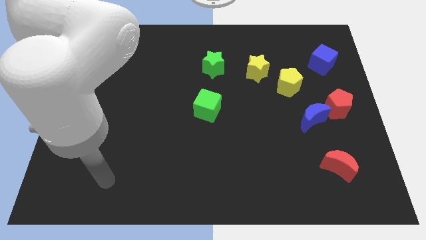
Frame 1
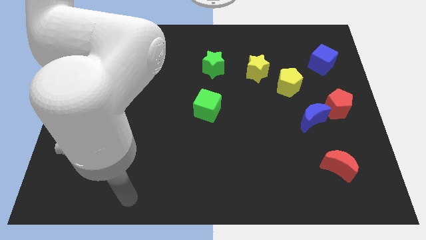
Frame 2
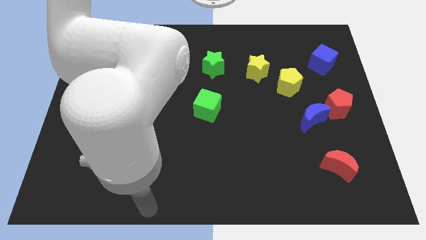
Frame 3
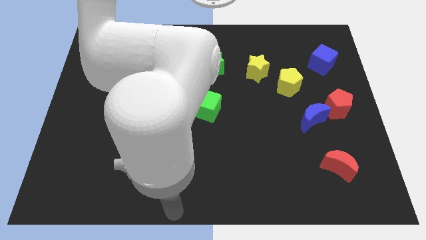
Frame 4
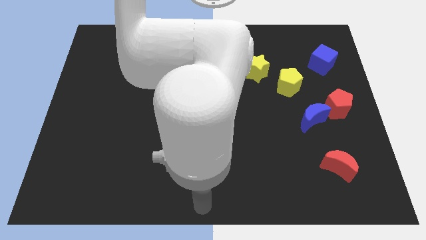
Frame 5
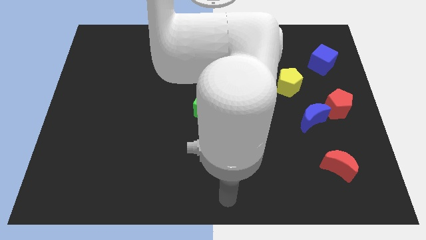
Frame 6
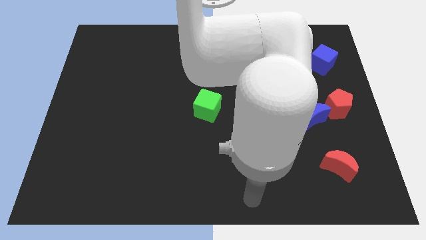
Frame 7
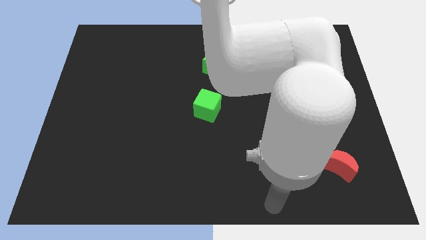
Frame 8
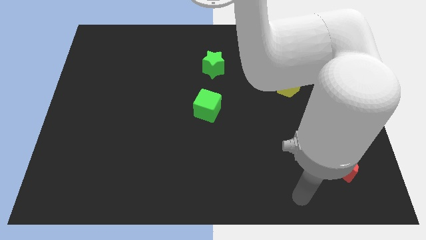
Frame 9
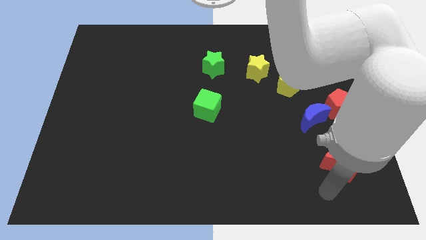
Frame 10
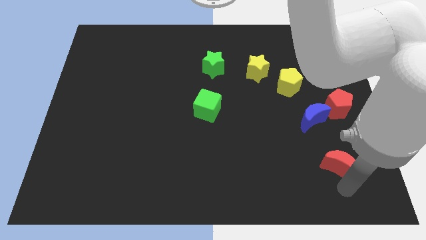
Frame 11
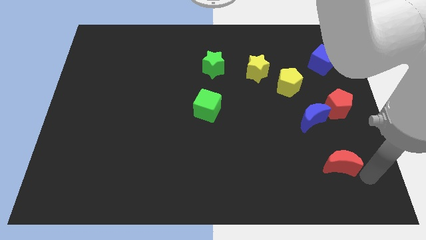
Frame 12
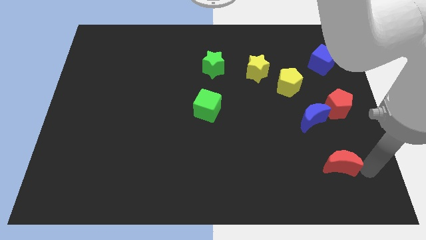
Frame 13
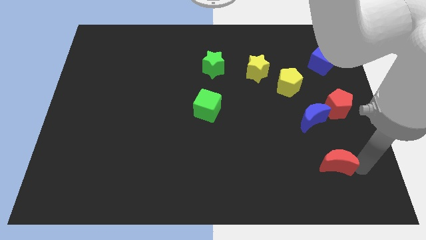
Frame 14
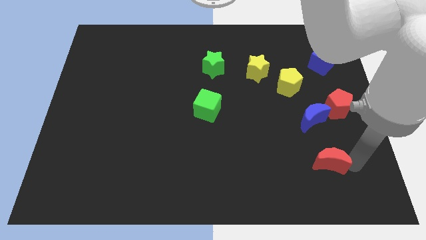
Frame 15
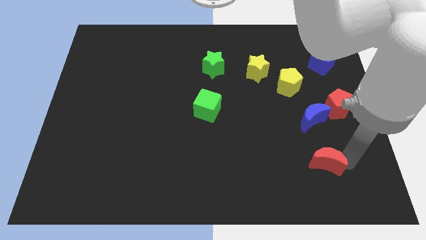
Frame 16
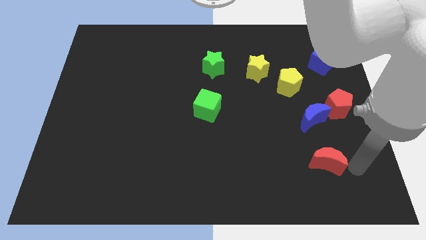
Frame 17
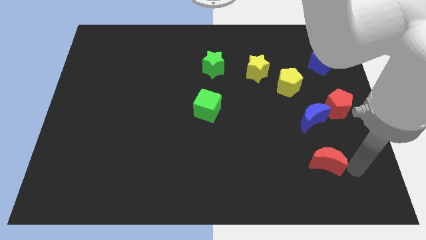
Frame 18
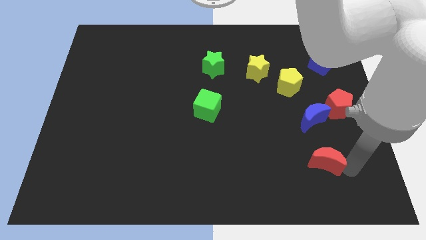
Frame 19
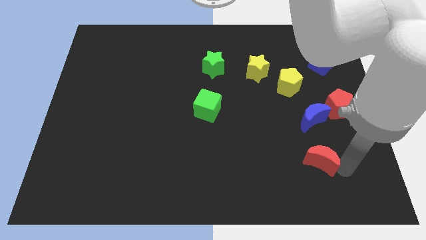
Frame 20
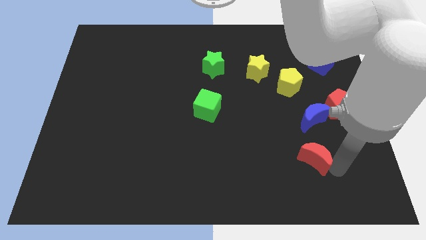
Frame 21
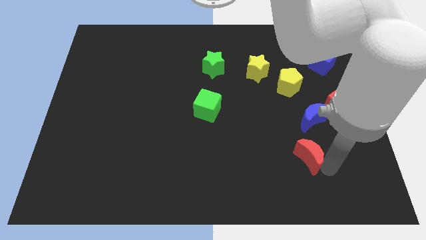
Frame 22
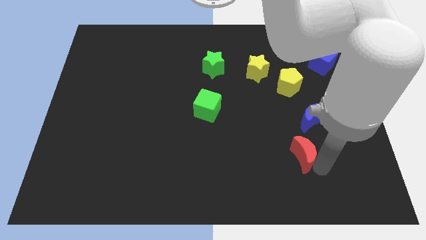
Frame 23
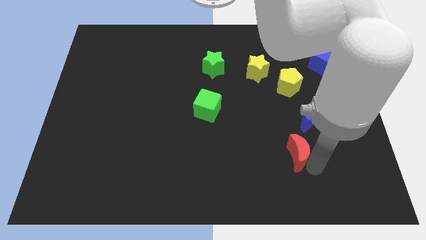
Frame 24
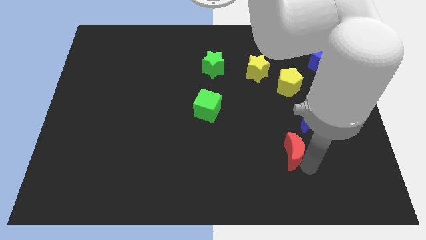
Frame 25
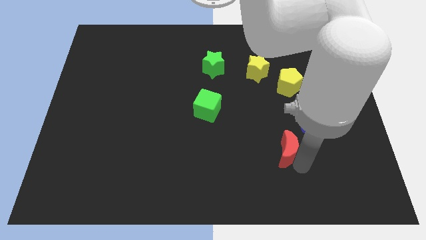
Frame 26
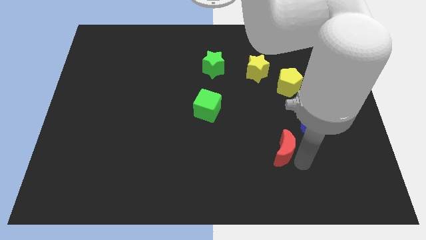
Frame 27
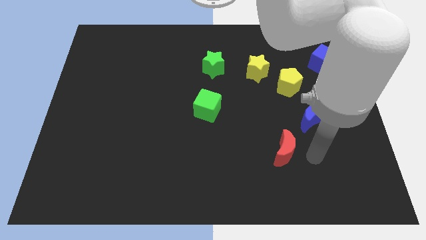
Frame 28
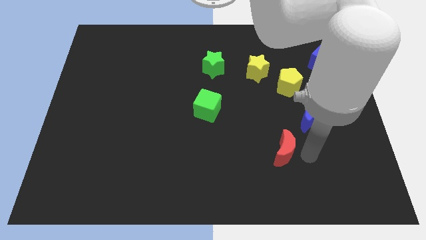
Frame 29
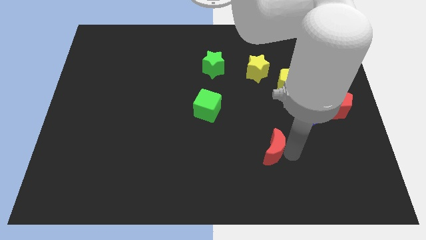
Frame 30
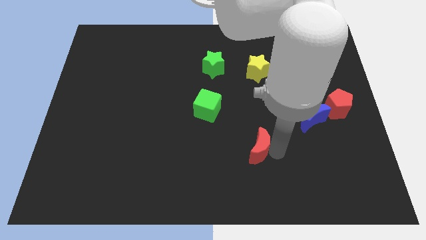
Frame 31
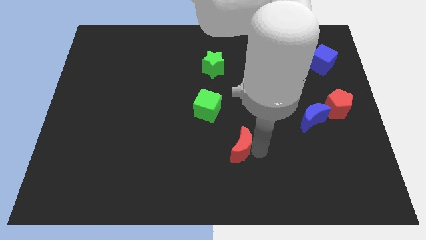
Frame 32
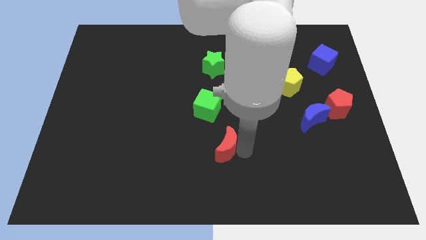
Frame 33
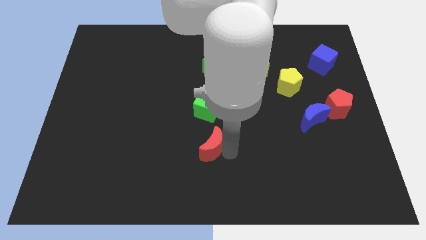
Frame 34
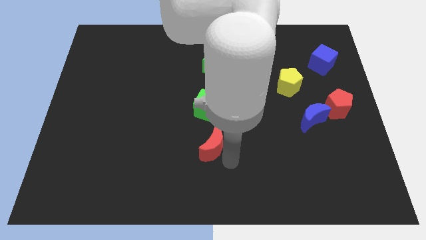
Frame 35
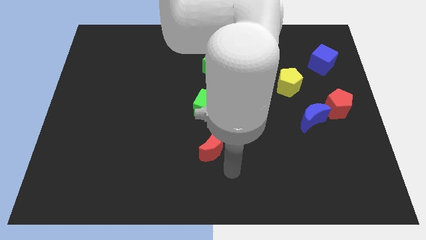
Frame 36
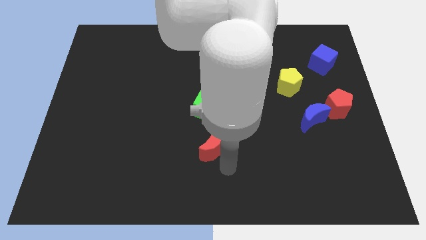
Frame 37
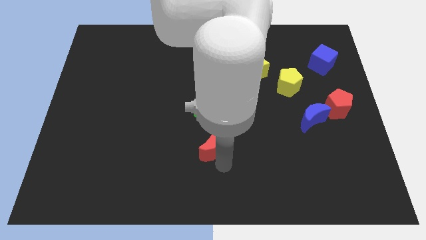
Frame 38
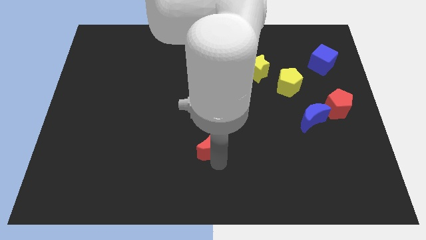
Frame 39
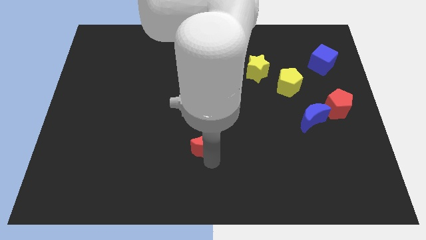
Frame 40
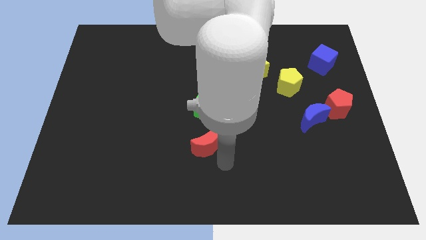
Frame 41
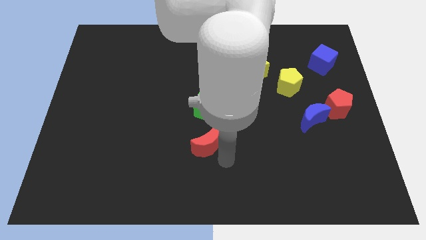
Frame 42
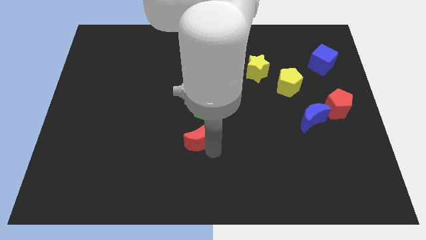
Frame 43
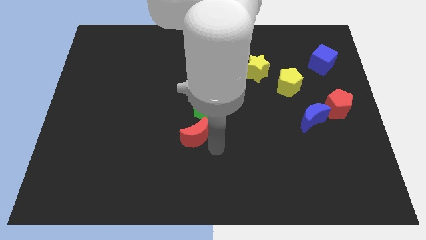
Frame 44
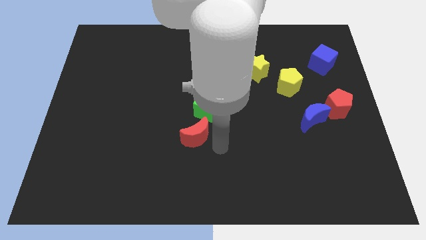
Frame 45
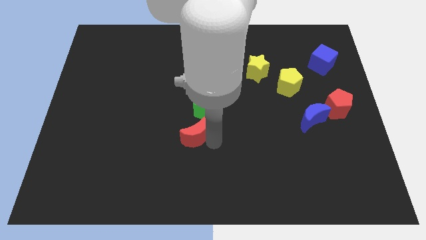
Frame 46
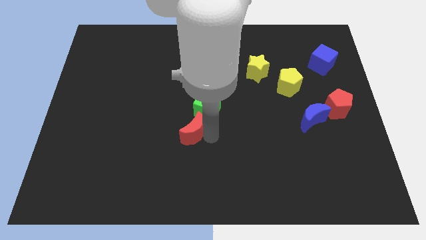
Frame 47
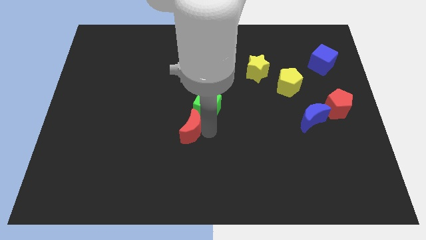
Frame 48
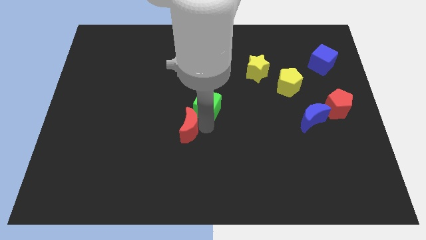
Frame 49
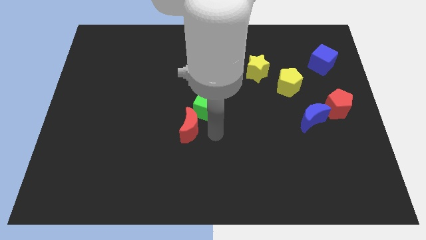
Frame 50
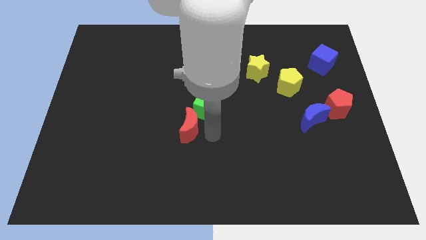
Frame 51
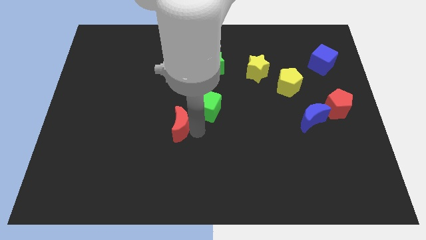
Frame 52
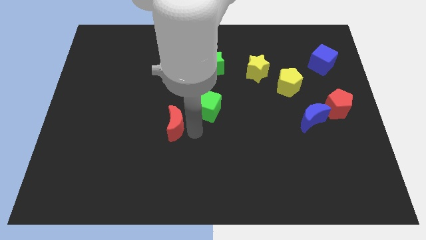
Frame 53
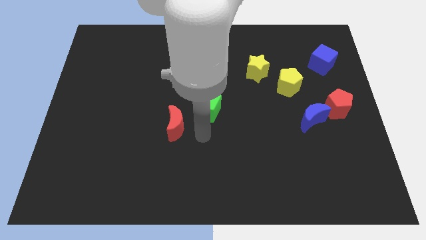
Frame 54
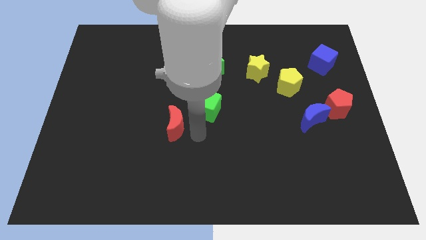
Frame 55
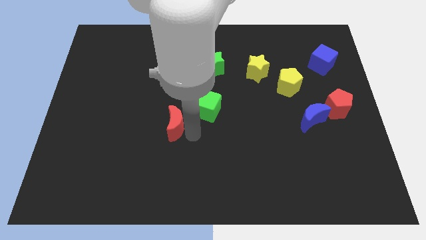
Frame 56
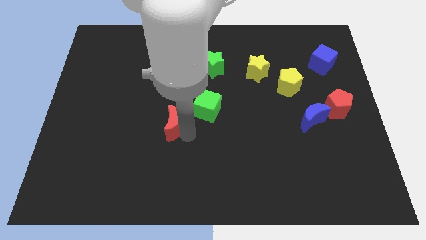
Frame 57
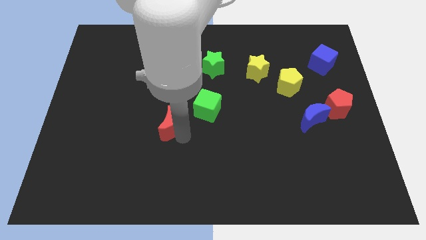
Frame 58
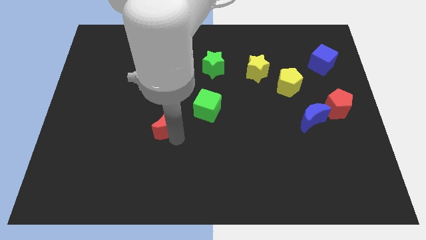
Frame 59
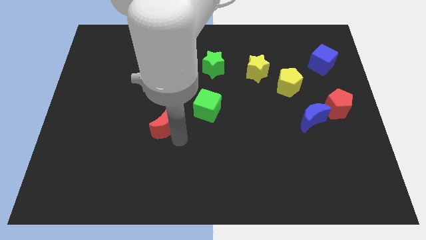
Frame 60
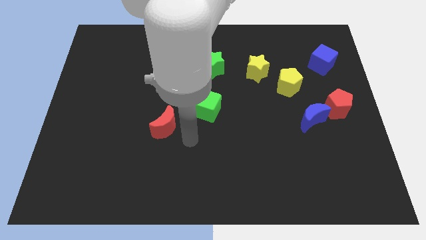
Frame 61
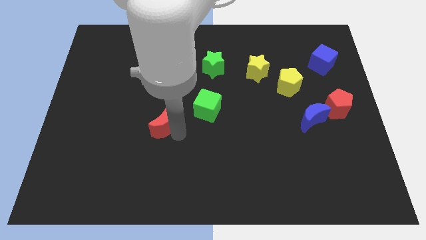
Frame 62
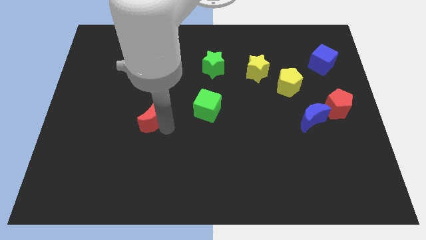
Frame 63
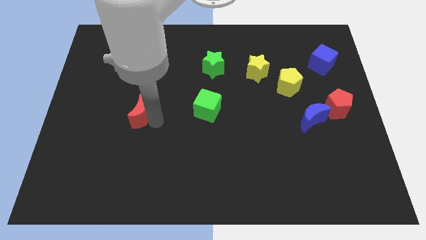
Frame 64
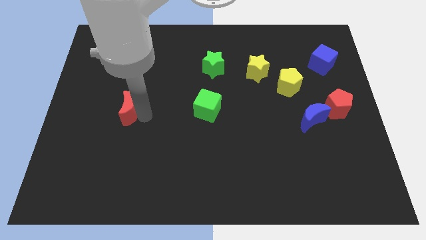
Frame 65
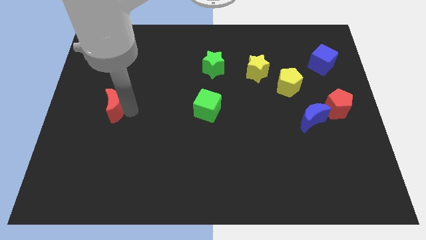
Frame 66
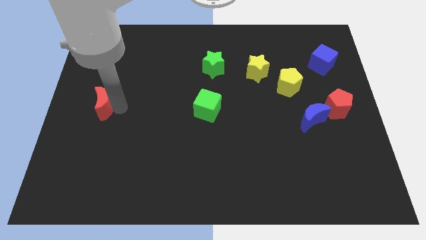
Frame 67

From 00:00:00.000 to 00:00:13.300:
put the red moon to the left side of the board

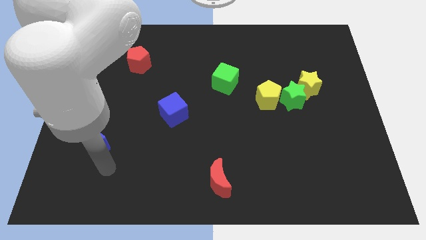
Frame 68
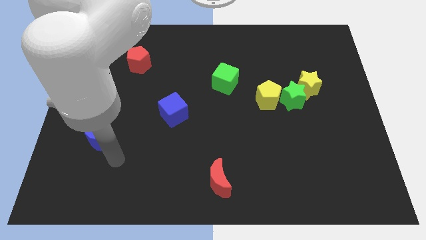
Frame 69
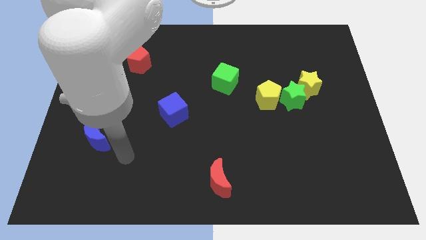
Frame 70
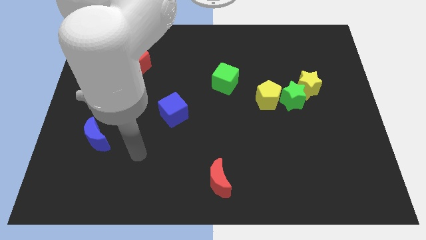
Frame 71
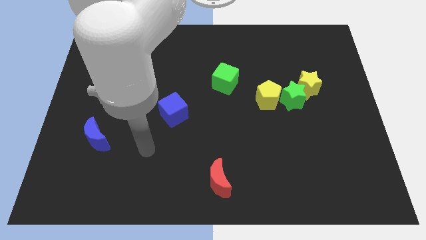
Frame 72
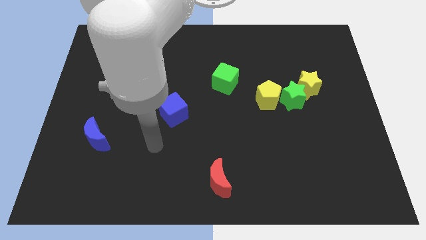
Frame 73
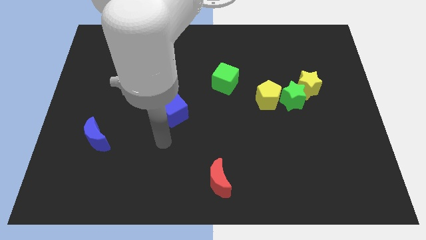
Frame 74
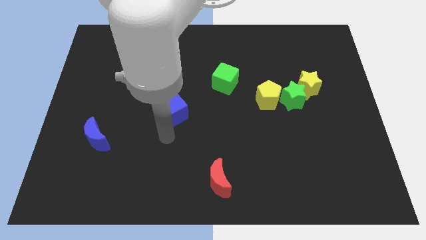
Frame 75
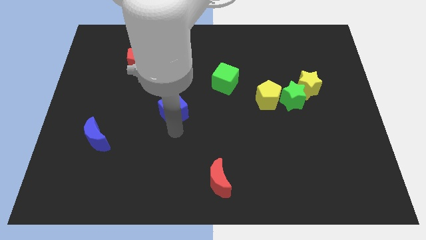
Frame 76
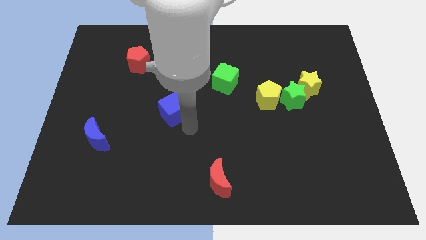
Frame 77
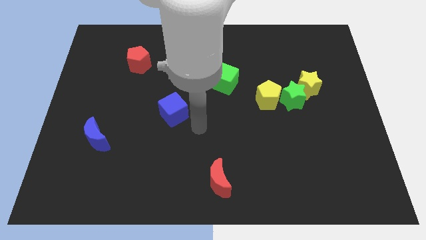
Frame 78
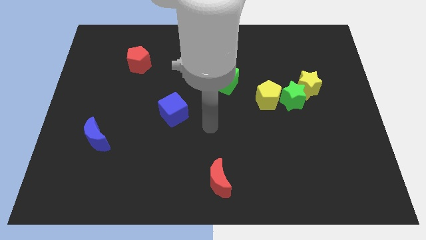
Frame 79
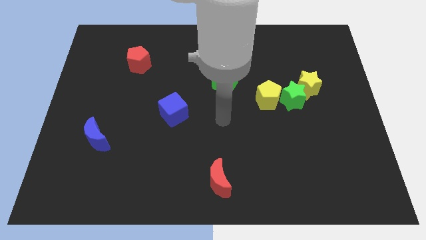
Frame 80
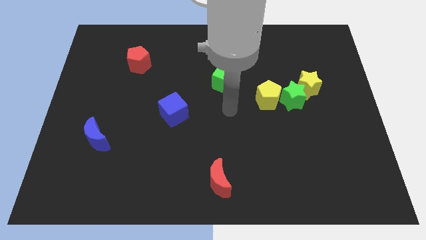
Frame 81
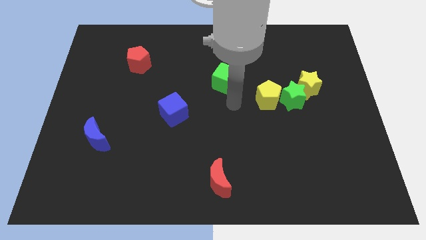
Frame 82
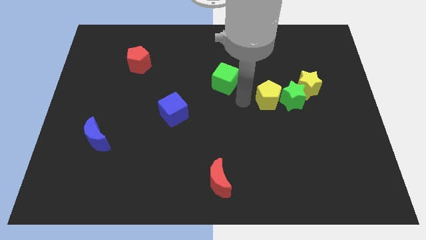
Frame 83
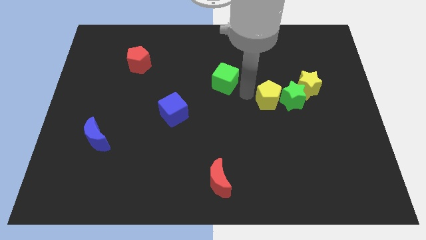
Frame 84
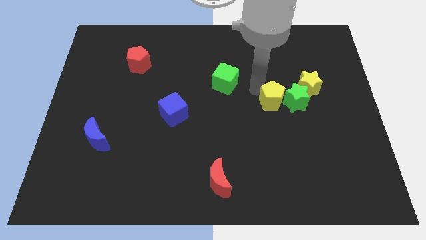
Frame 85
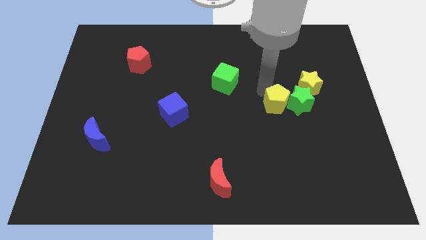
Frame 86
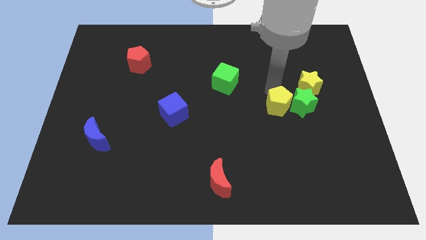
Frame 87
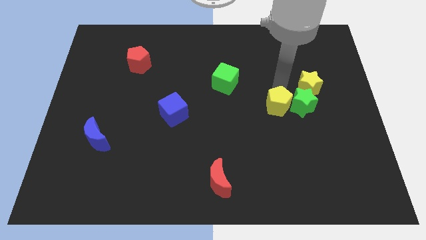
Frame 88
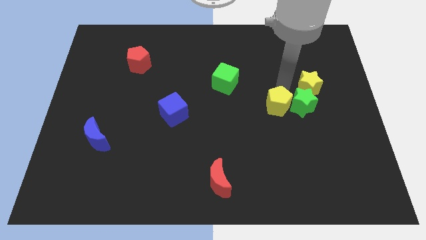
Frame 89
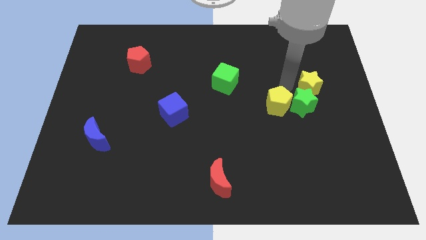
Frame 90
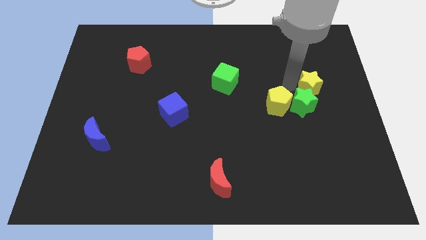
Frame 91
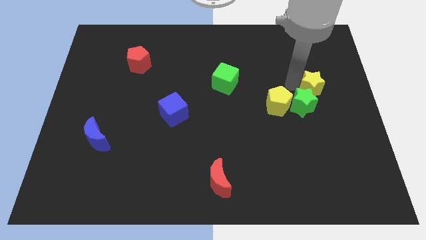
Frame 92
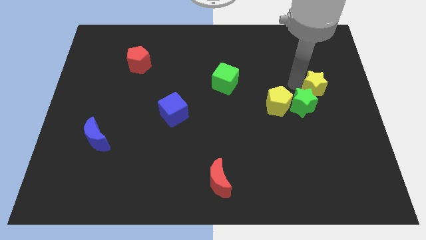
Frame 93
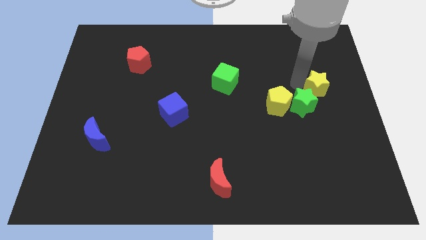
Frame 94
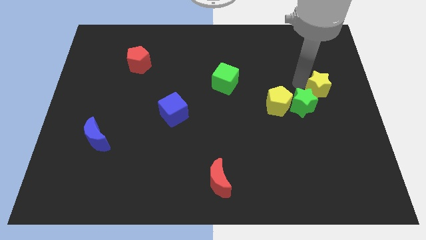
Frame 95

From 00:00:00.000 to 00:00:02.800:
put the yellow star to the center right
